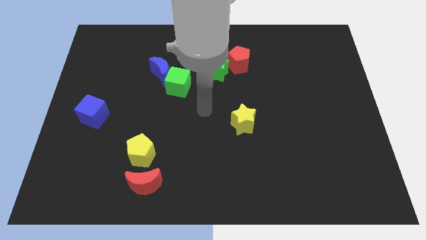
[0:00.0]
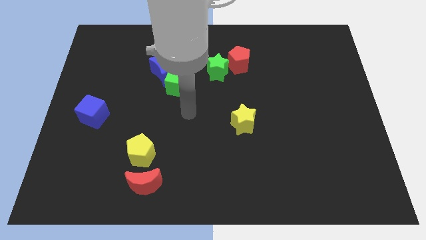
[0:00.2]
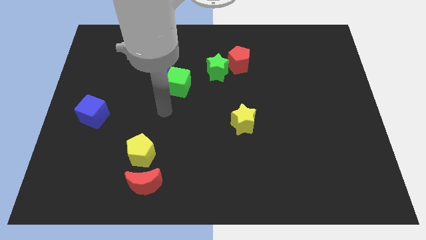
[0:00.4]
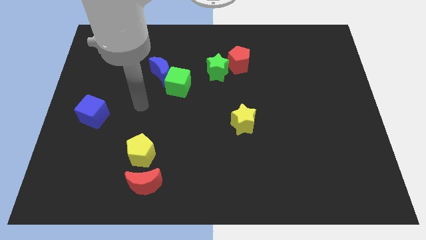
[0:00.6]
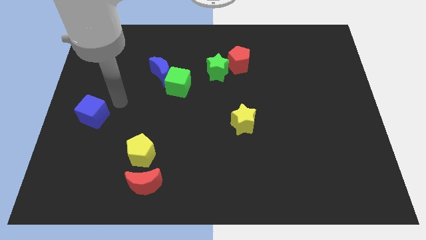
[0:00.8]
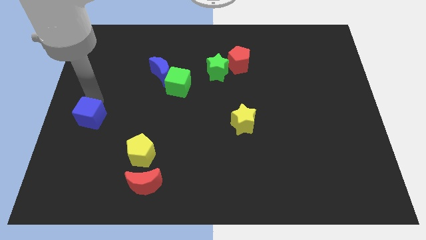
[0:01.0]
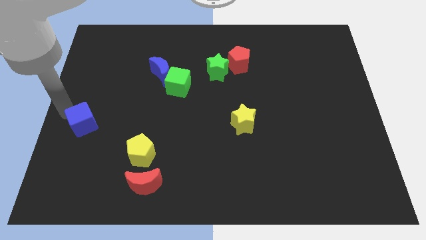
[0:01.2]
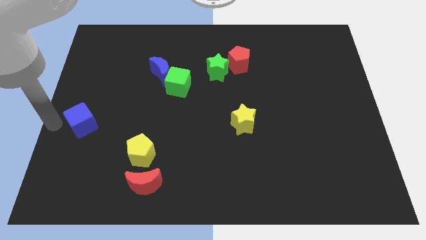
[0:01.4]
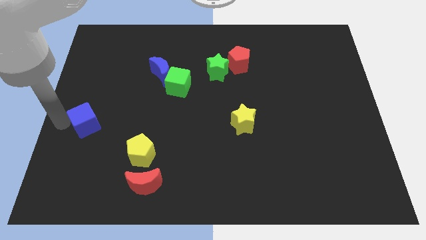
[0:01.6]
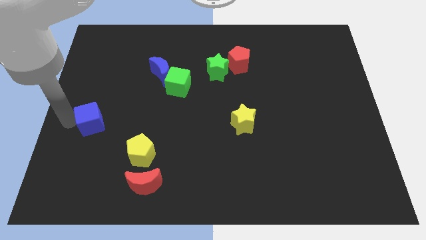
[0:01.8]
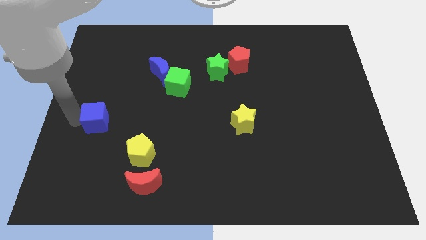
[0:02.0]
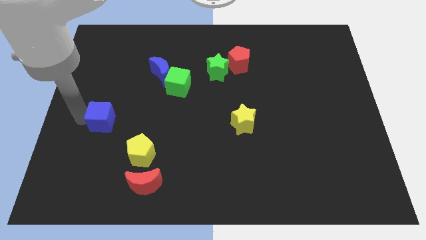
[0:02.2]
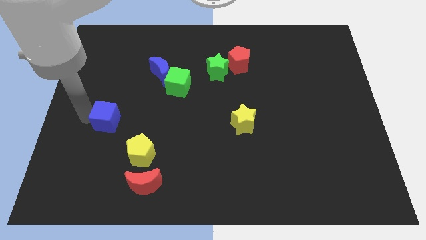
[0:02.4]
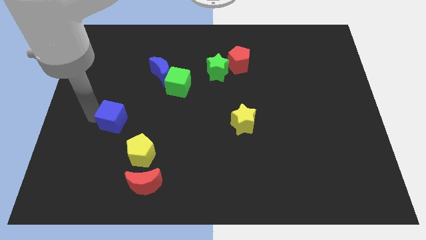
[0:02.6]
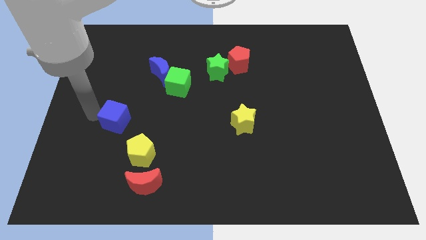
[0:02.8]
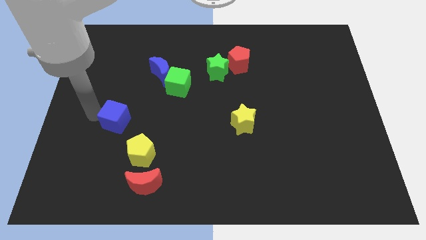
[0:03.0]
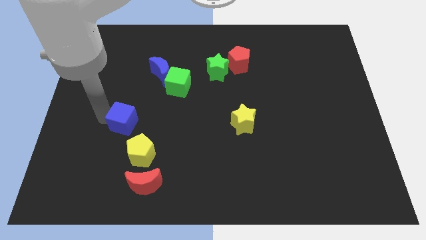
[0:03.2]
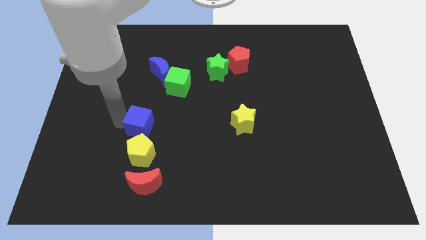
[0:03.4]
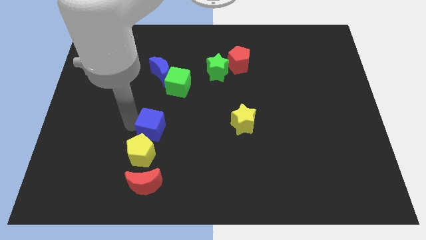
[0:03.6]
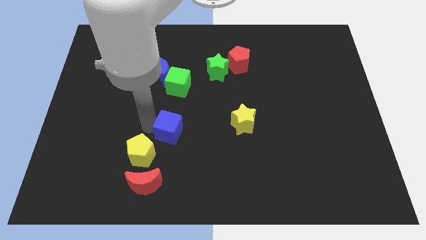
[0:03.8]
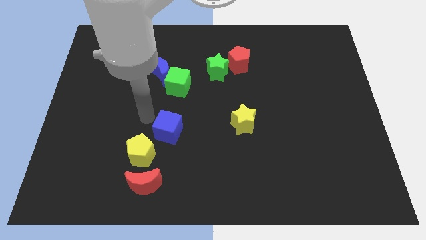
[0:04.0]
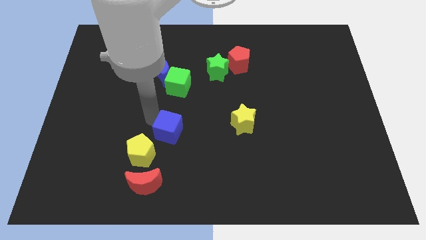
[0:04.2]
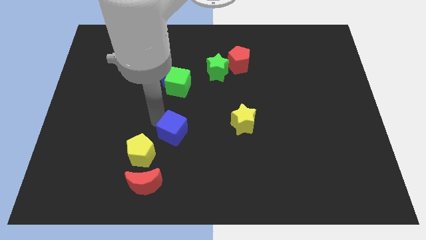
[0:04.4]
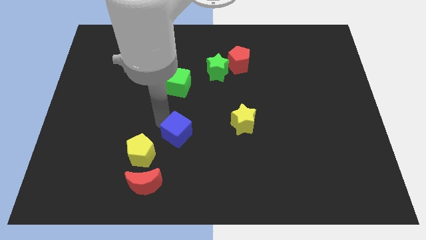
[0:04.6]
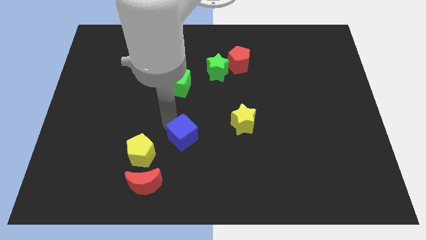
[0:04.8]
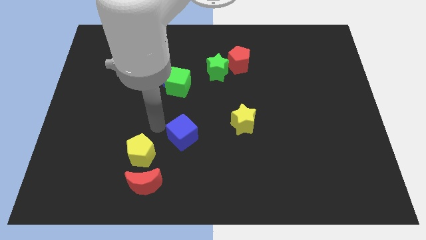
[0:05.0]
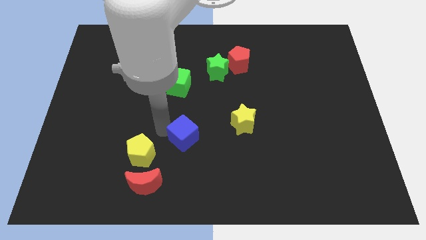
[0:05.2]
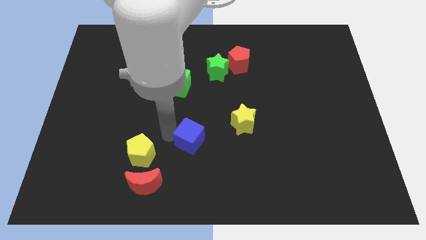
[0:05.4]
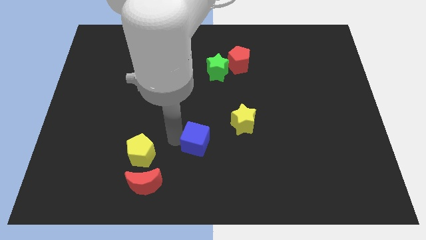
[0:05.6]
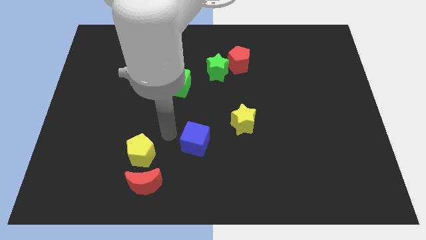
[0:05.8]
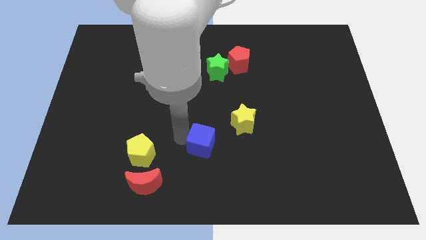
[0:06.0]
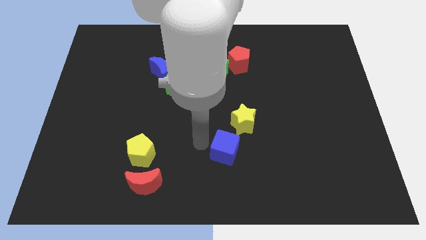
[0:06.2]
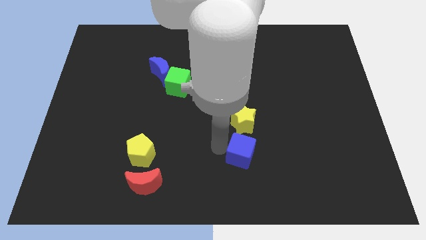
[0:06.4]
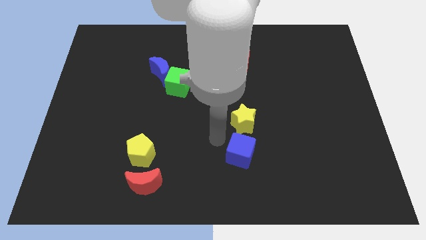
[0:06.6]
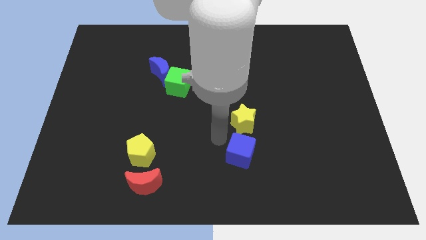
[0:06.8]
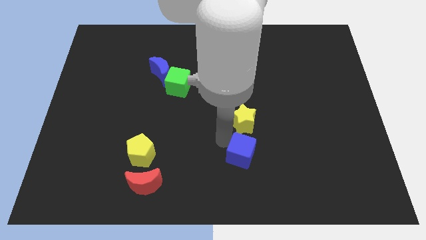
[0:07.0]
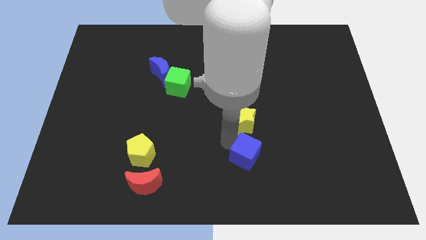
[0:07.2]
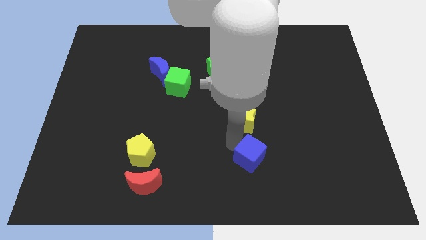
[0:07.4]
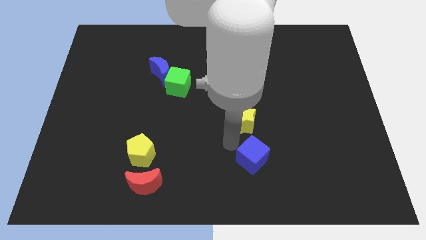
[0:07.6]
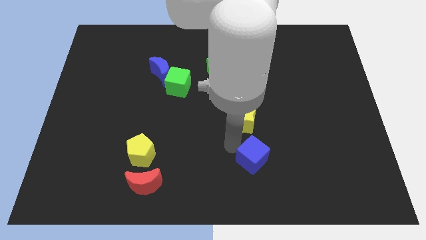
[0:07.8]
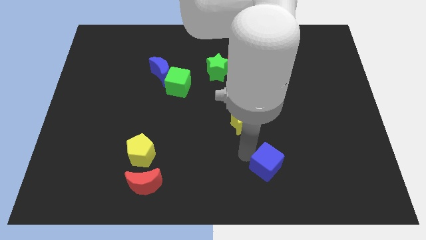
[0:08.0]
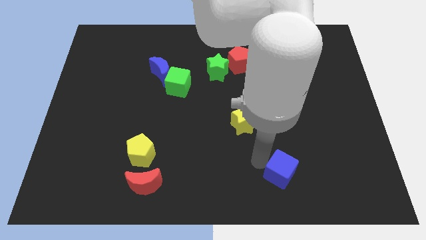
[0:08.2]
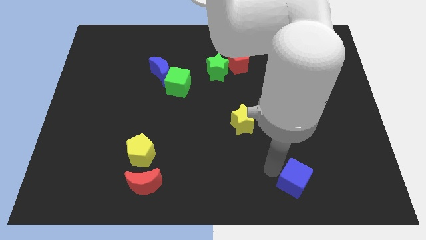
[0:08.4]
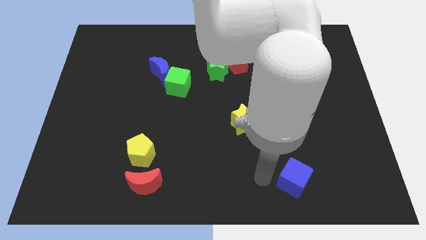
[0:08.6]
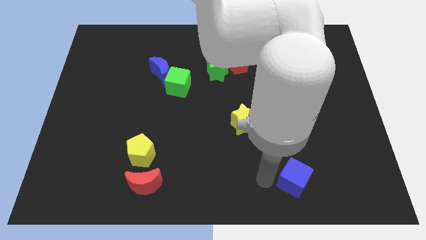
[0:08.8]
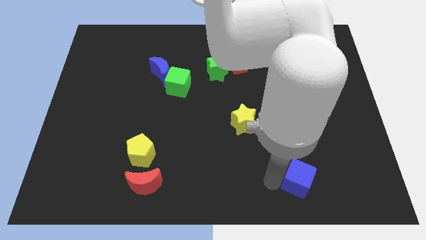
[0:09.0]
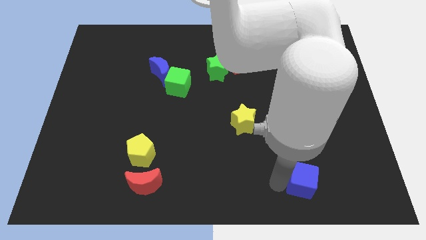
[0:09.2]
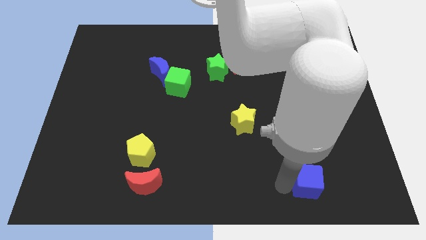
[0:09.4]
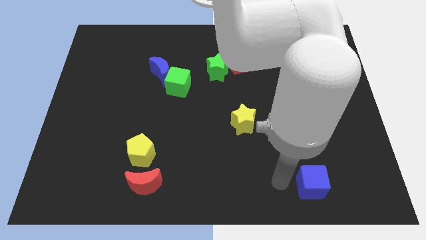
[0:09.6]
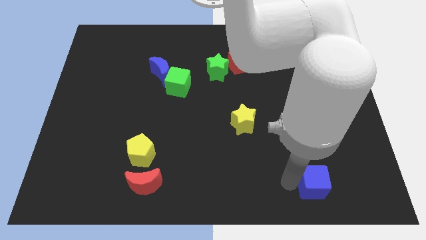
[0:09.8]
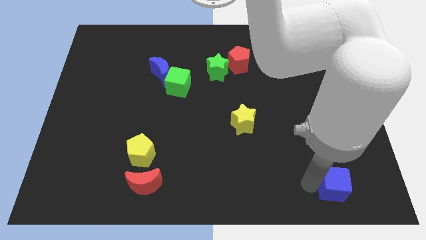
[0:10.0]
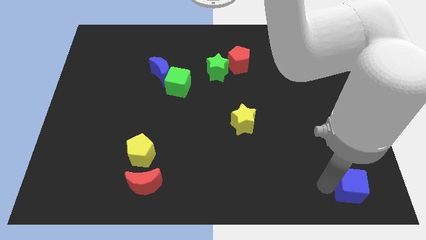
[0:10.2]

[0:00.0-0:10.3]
push the blue cube to the bottom right of the board

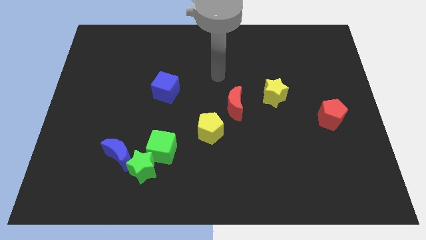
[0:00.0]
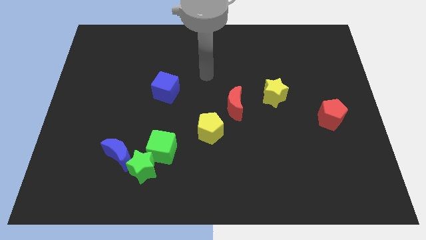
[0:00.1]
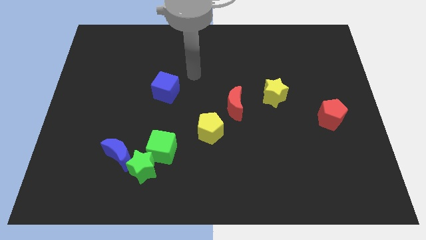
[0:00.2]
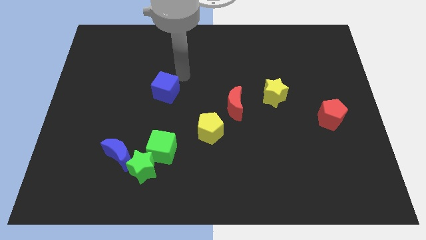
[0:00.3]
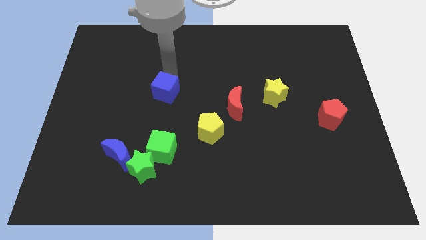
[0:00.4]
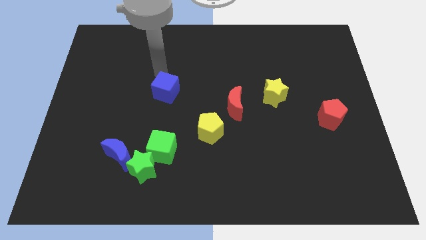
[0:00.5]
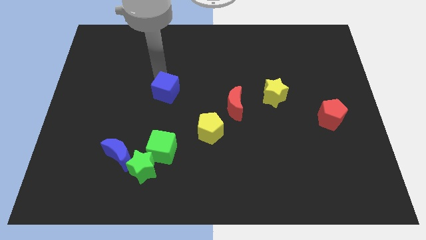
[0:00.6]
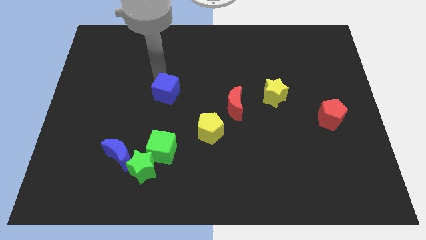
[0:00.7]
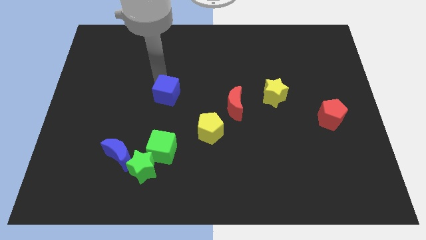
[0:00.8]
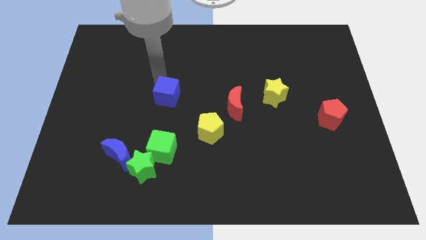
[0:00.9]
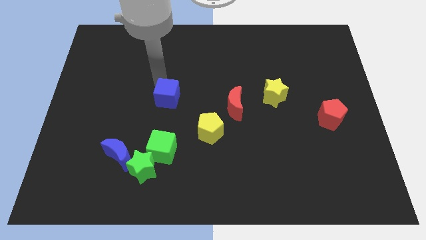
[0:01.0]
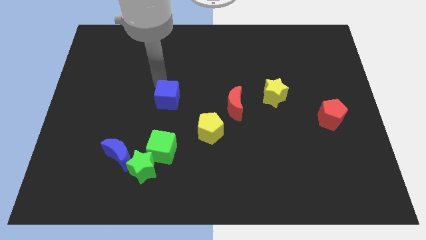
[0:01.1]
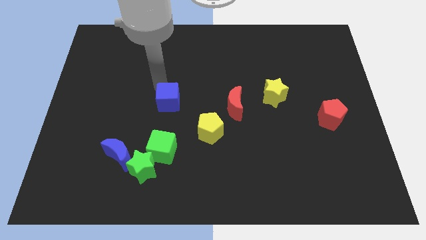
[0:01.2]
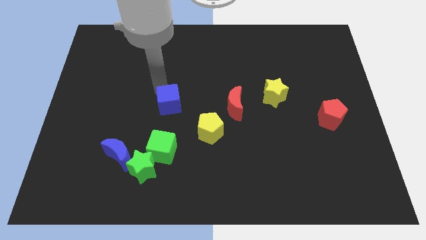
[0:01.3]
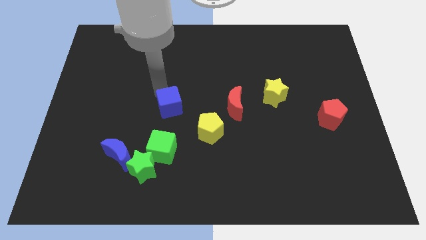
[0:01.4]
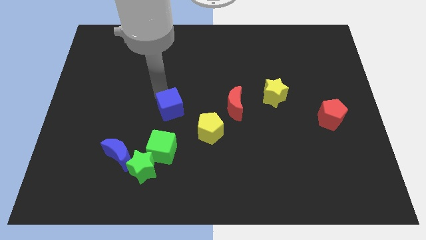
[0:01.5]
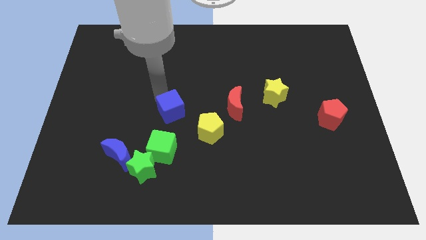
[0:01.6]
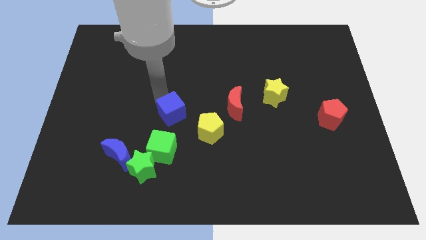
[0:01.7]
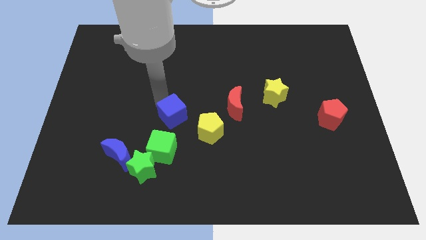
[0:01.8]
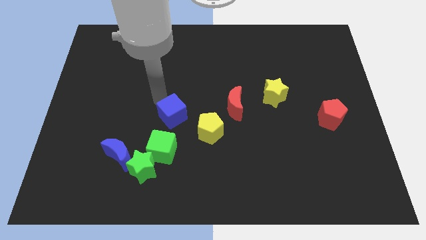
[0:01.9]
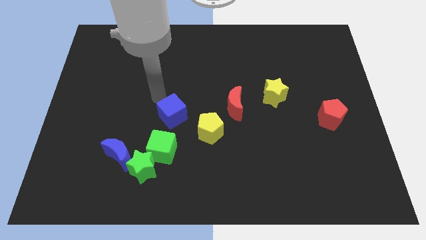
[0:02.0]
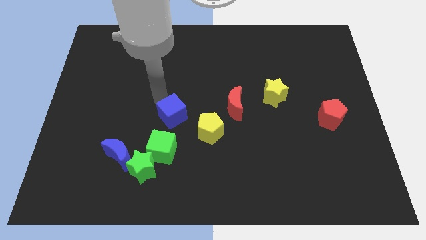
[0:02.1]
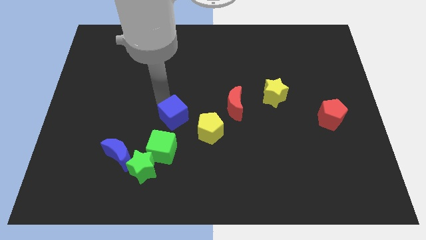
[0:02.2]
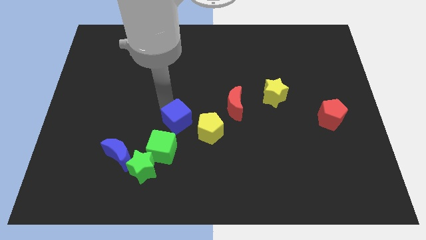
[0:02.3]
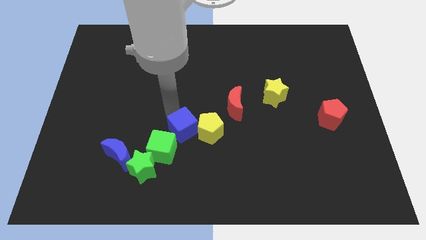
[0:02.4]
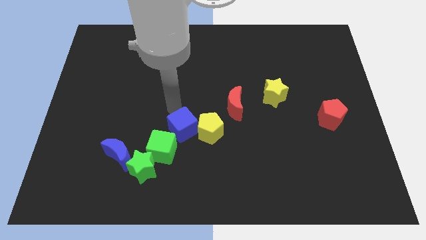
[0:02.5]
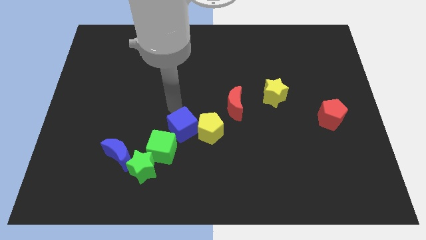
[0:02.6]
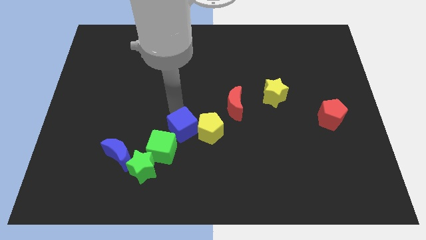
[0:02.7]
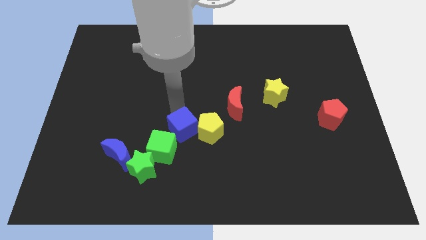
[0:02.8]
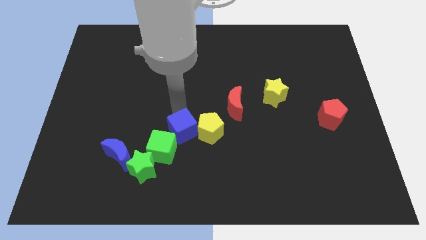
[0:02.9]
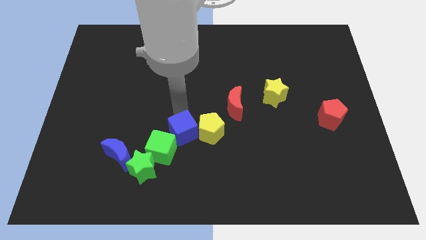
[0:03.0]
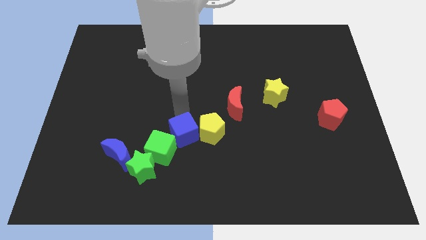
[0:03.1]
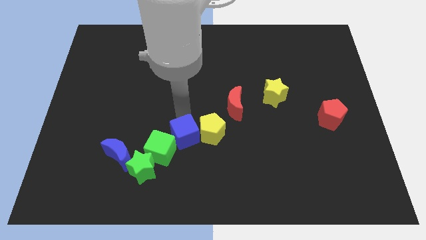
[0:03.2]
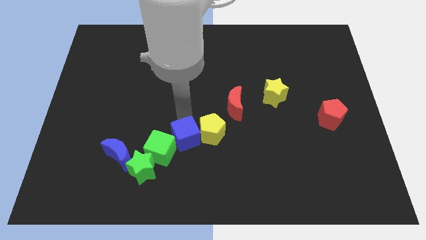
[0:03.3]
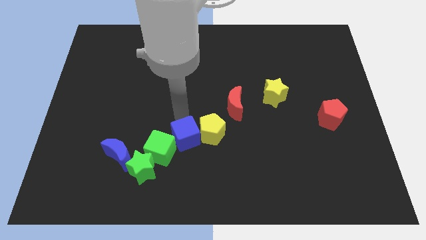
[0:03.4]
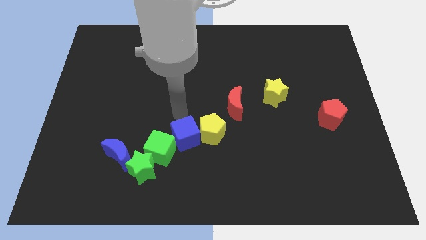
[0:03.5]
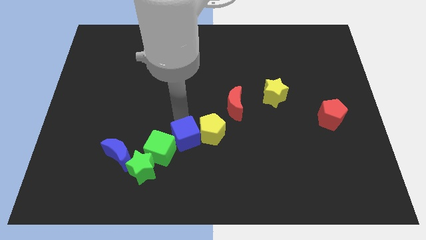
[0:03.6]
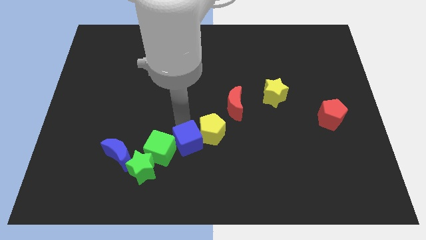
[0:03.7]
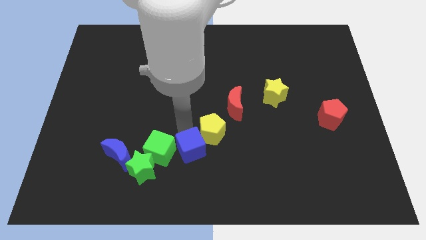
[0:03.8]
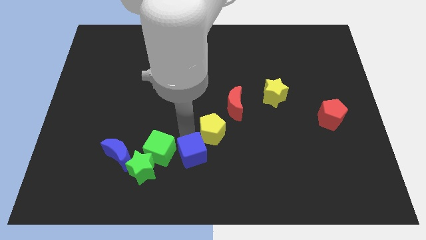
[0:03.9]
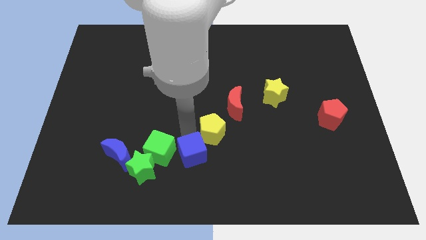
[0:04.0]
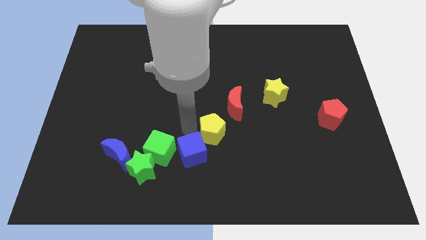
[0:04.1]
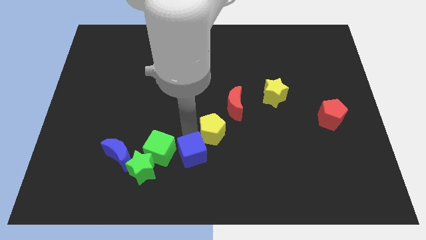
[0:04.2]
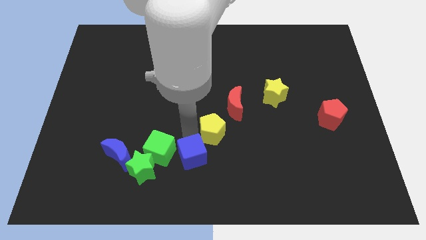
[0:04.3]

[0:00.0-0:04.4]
move the blue cube to the bottom side
